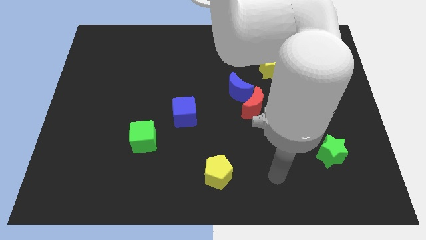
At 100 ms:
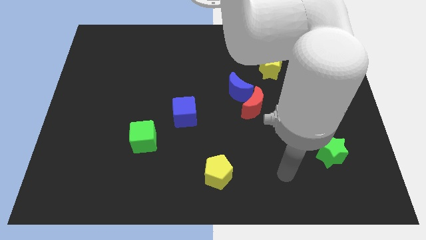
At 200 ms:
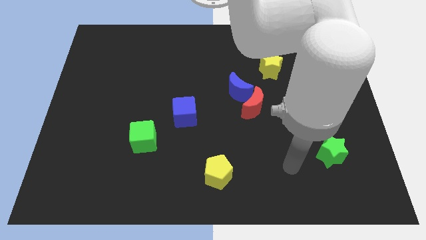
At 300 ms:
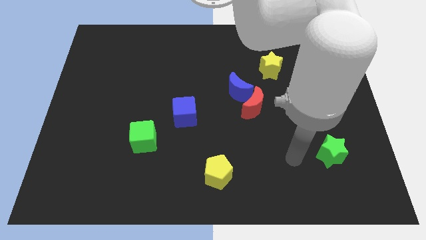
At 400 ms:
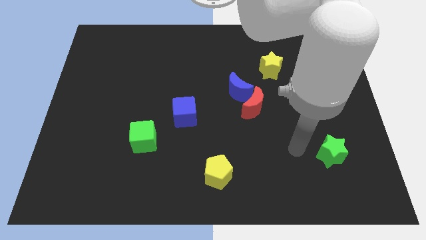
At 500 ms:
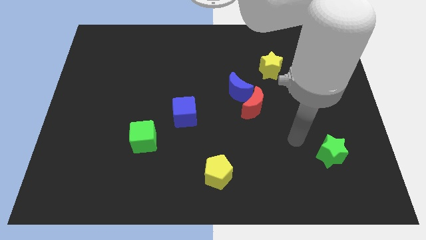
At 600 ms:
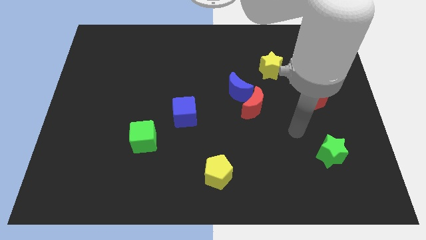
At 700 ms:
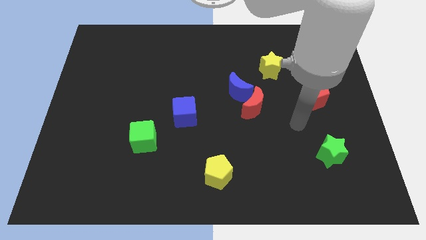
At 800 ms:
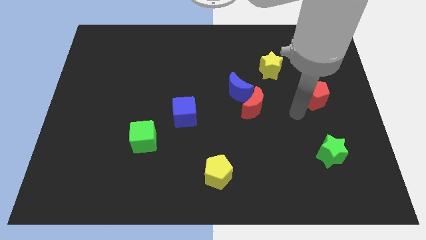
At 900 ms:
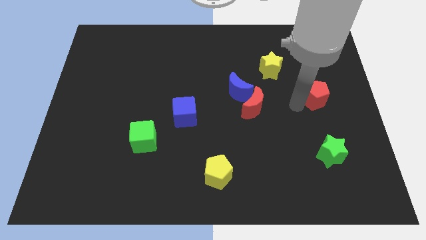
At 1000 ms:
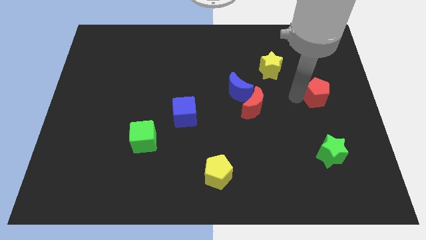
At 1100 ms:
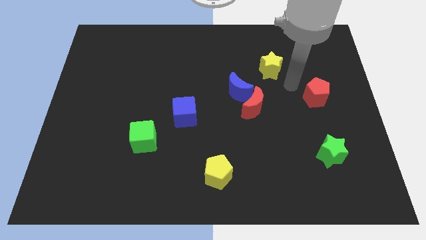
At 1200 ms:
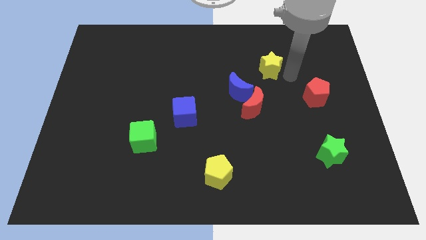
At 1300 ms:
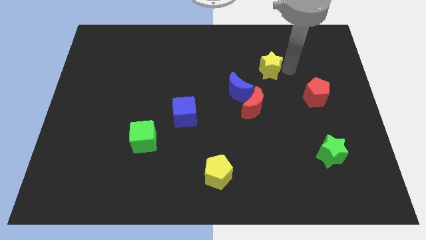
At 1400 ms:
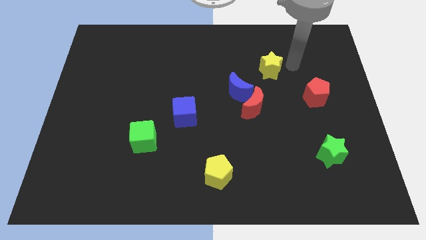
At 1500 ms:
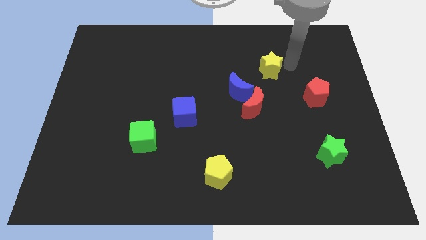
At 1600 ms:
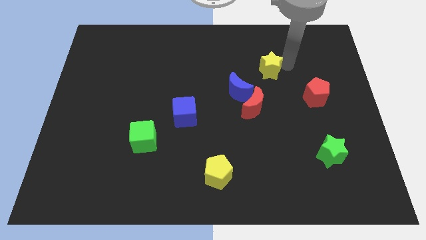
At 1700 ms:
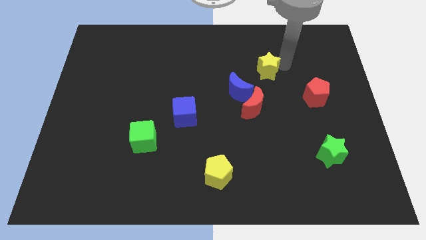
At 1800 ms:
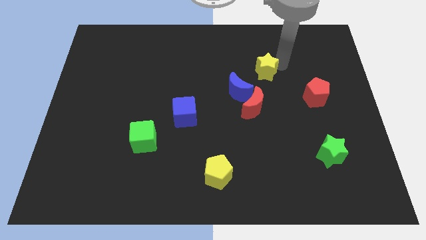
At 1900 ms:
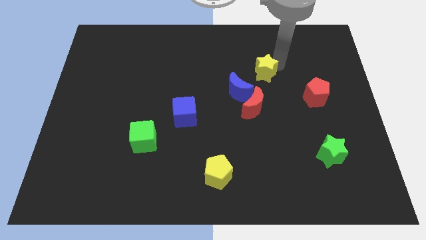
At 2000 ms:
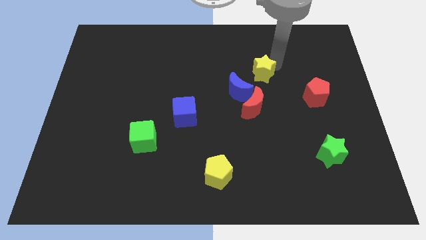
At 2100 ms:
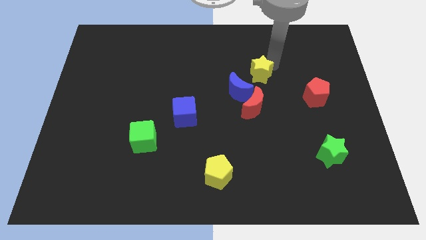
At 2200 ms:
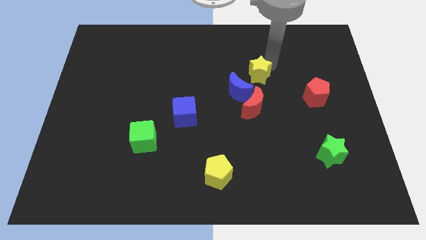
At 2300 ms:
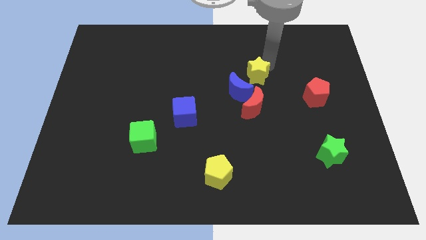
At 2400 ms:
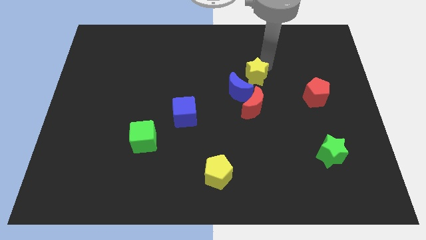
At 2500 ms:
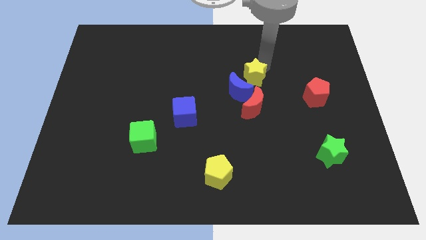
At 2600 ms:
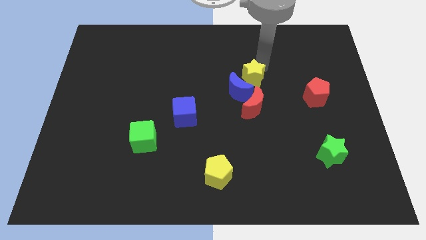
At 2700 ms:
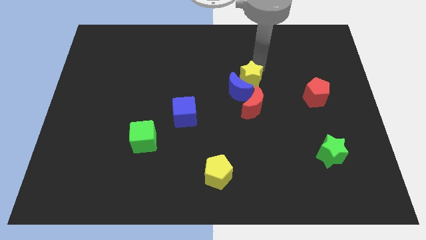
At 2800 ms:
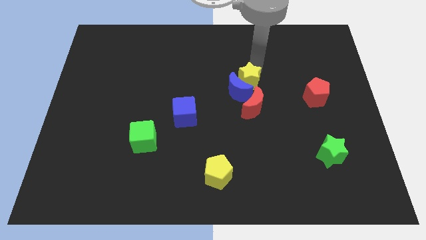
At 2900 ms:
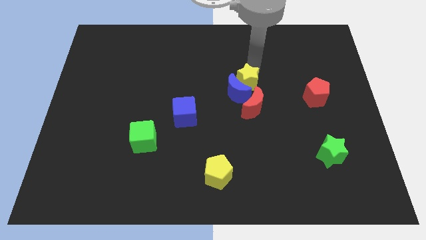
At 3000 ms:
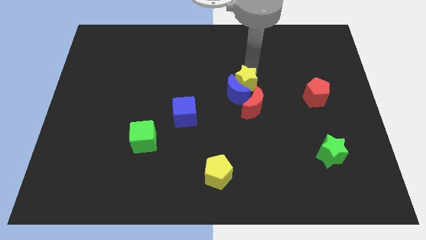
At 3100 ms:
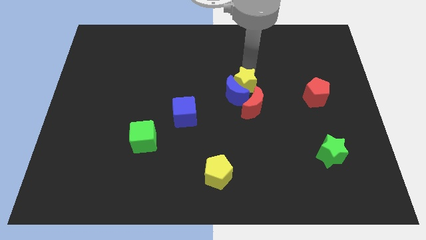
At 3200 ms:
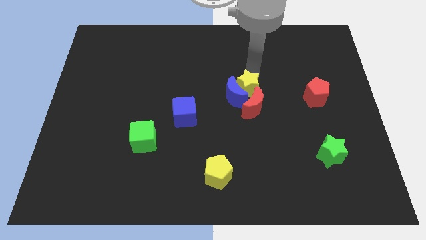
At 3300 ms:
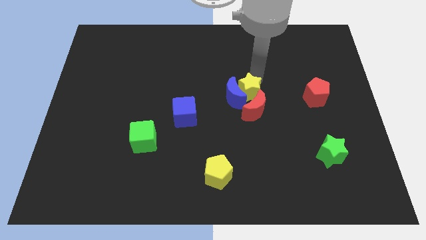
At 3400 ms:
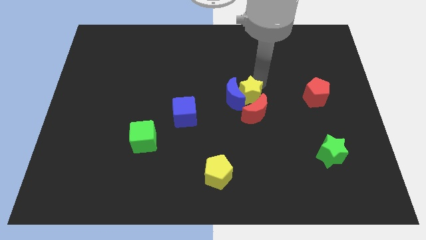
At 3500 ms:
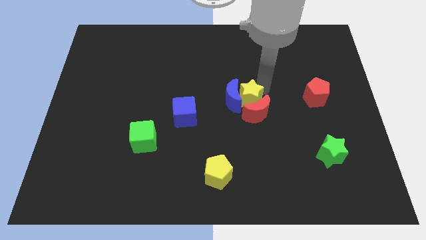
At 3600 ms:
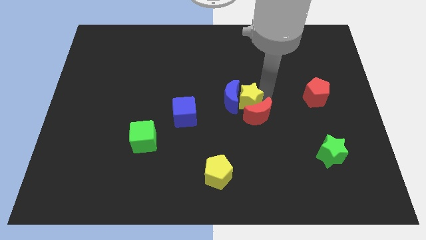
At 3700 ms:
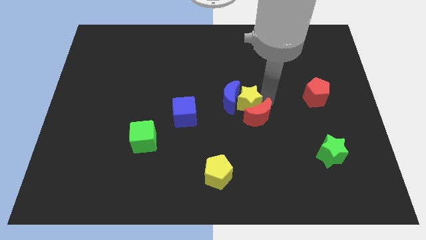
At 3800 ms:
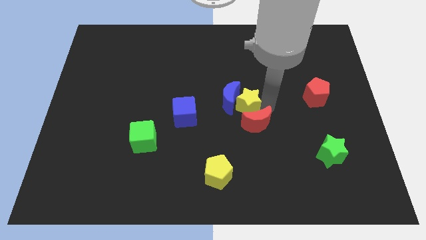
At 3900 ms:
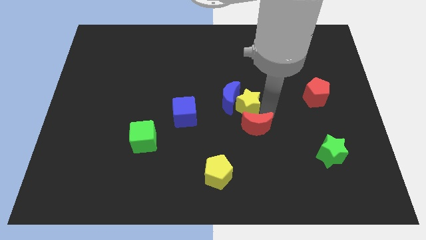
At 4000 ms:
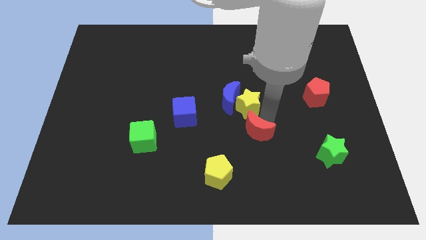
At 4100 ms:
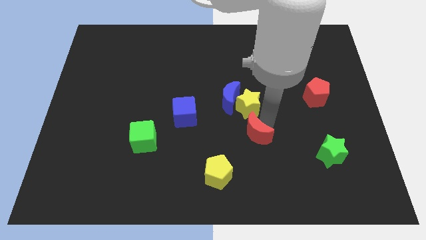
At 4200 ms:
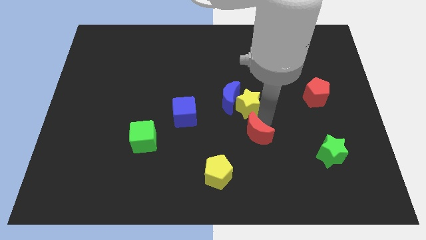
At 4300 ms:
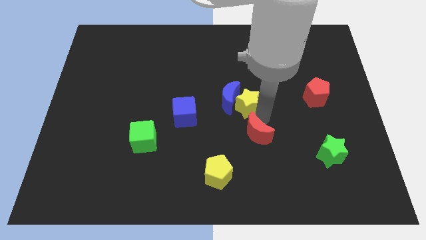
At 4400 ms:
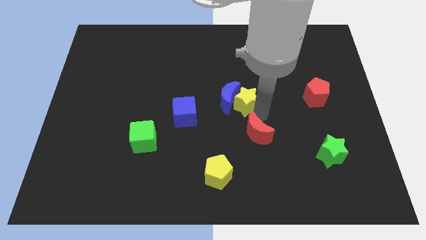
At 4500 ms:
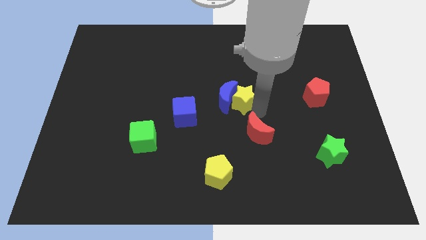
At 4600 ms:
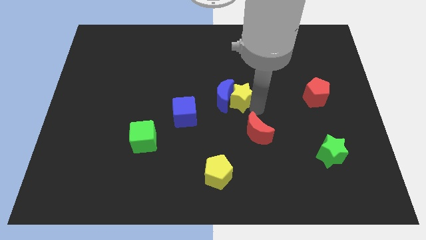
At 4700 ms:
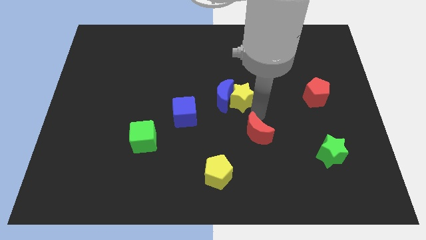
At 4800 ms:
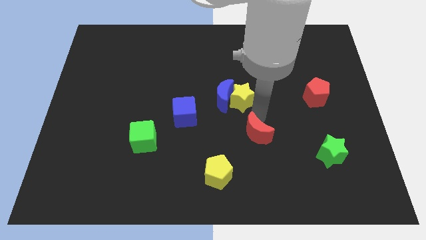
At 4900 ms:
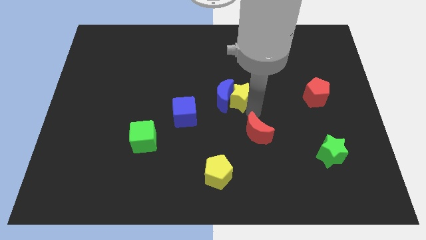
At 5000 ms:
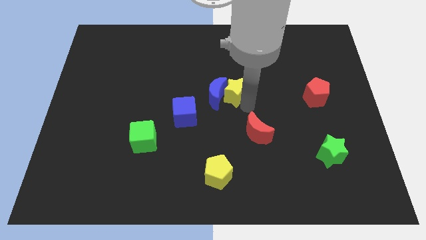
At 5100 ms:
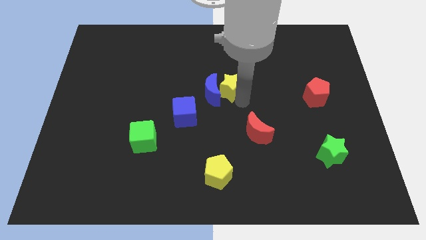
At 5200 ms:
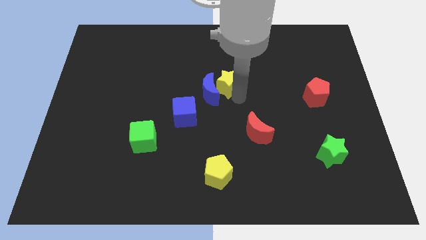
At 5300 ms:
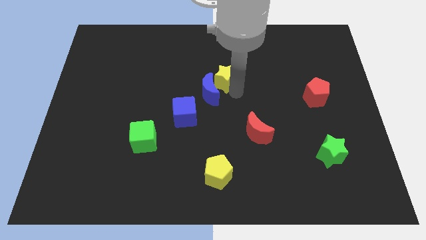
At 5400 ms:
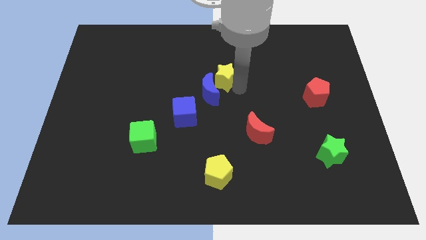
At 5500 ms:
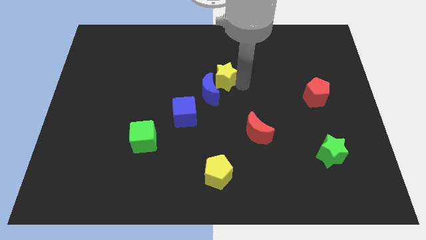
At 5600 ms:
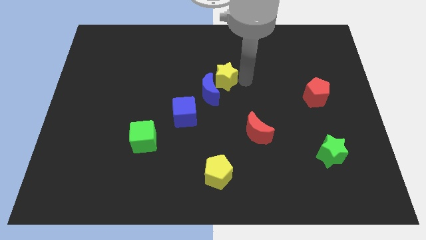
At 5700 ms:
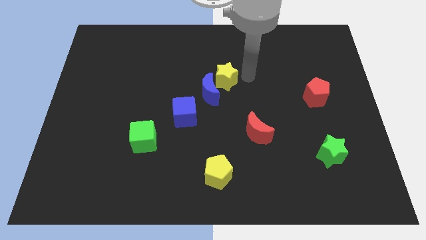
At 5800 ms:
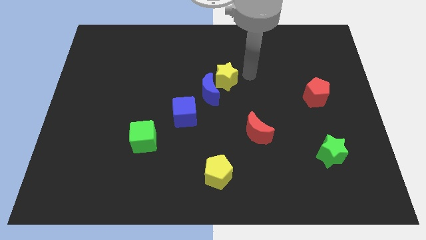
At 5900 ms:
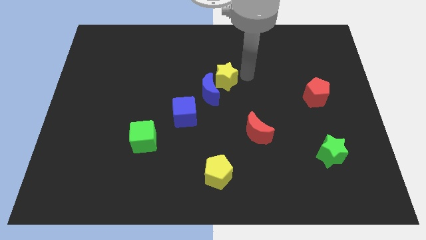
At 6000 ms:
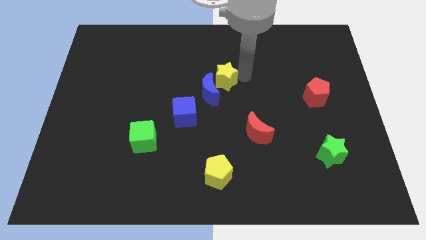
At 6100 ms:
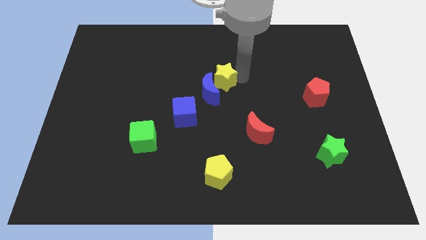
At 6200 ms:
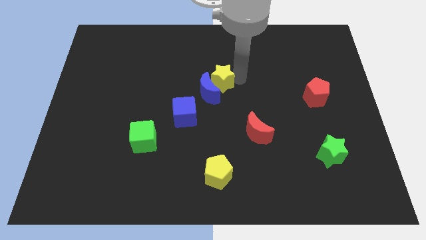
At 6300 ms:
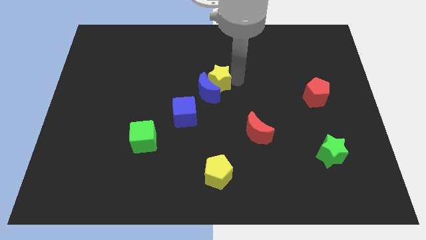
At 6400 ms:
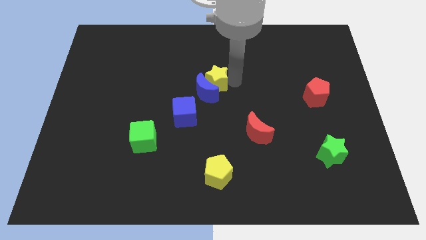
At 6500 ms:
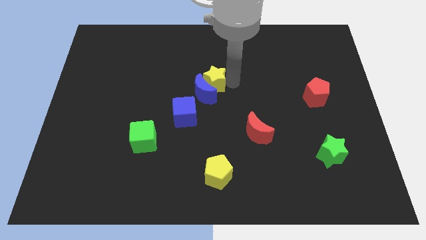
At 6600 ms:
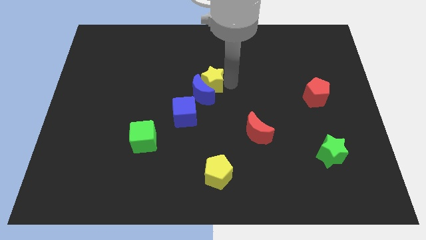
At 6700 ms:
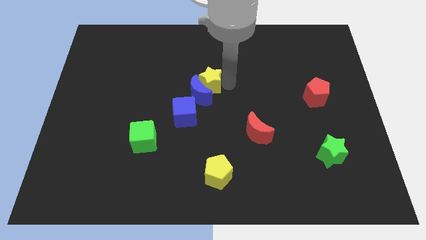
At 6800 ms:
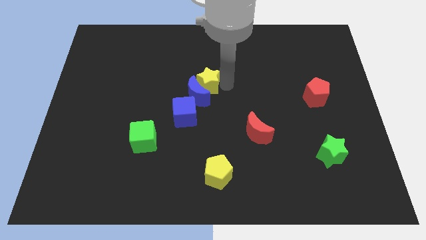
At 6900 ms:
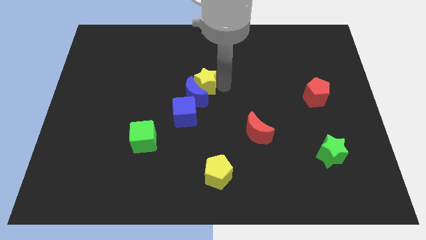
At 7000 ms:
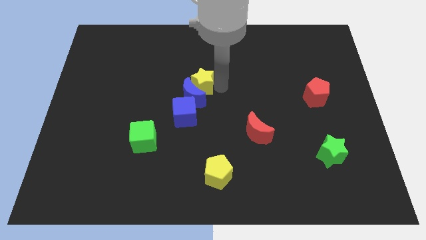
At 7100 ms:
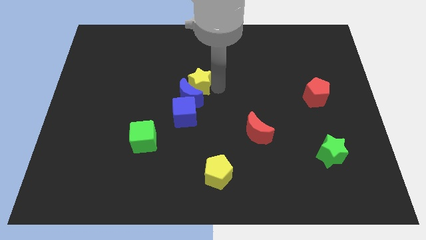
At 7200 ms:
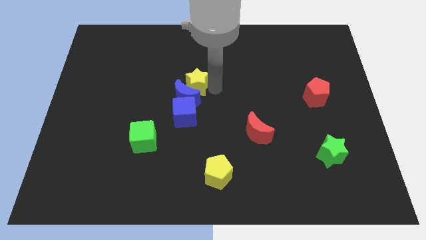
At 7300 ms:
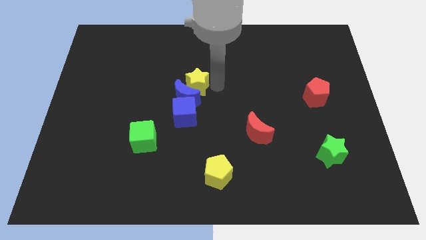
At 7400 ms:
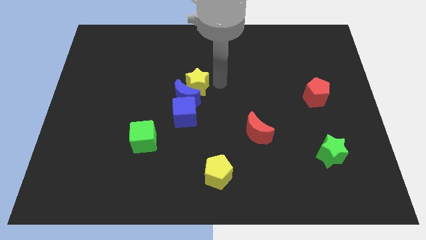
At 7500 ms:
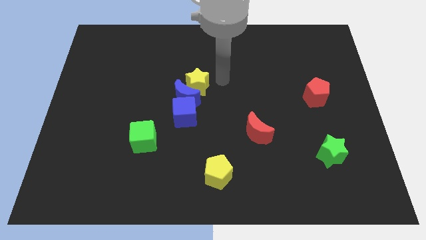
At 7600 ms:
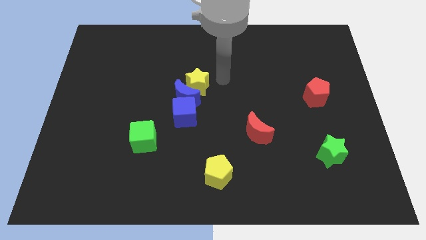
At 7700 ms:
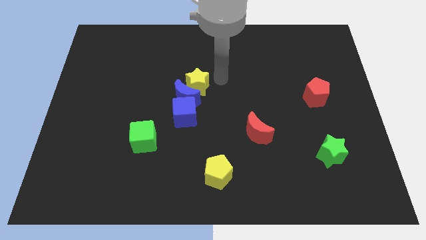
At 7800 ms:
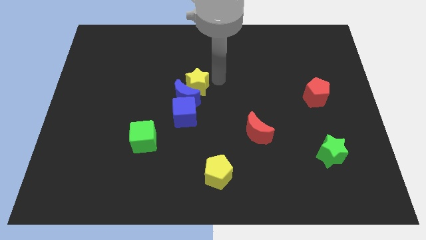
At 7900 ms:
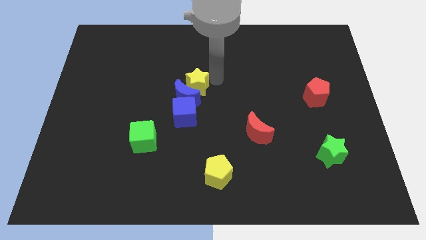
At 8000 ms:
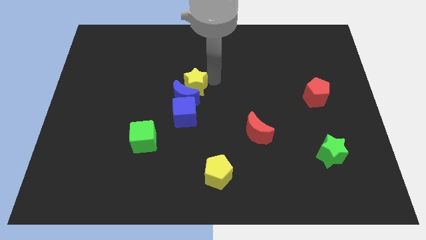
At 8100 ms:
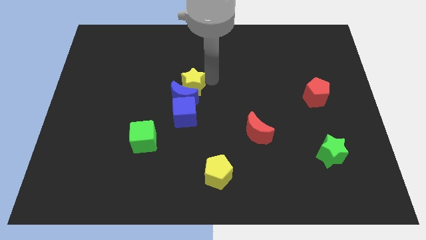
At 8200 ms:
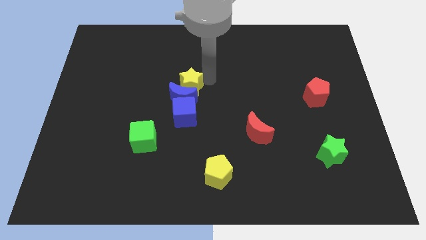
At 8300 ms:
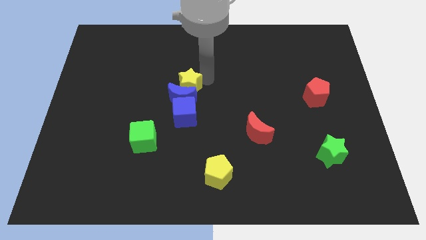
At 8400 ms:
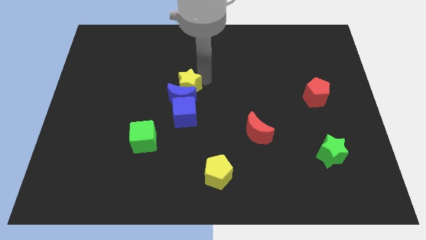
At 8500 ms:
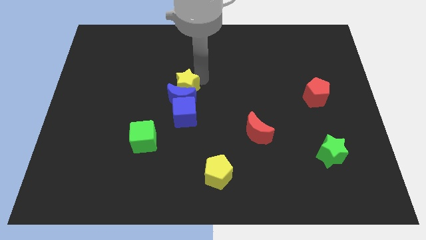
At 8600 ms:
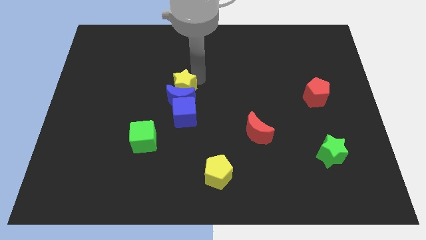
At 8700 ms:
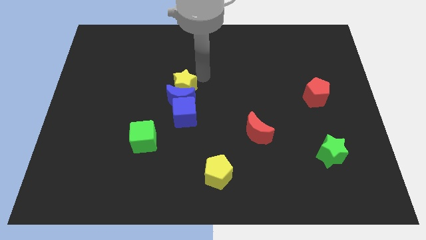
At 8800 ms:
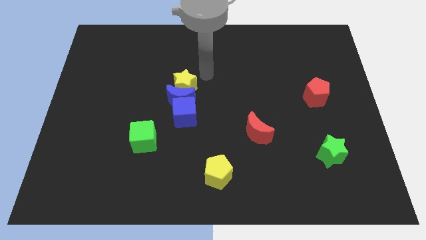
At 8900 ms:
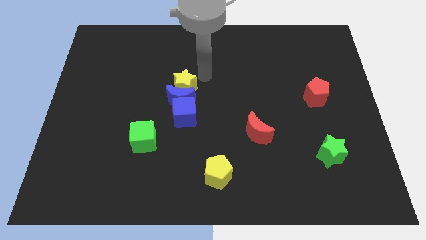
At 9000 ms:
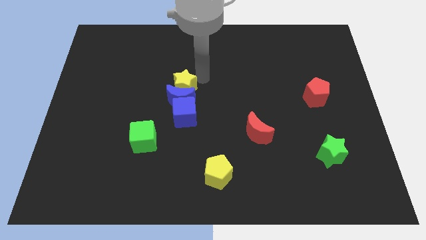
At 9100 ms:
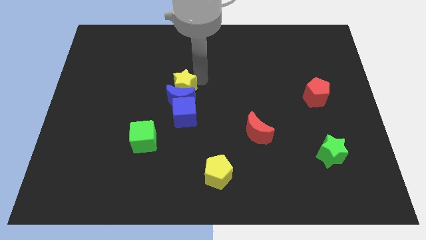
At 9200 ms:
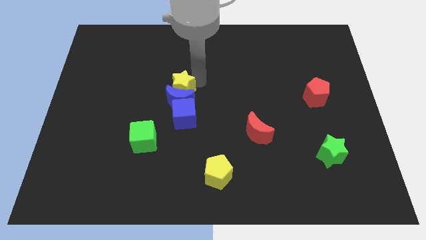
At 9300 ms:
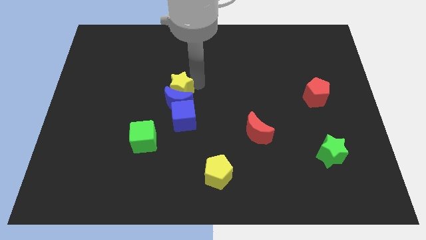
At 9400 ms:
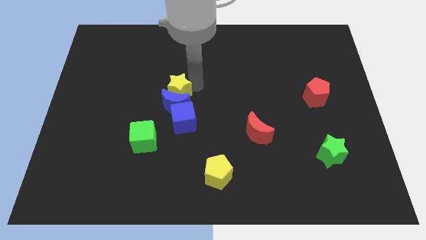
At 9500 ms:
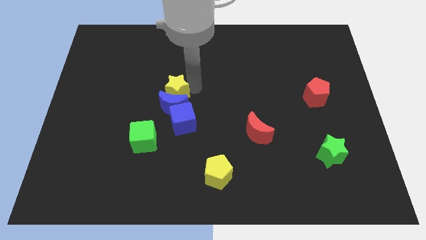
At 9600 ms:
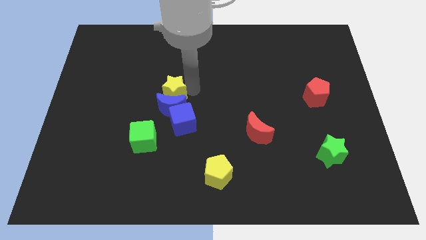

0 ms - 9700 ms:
slide the yellow star to the top left side of the blue cube
